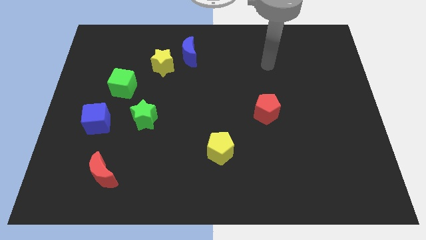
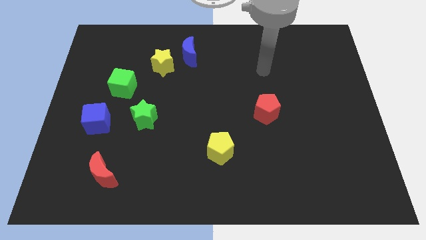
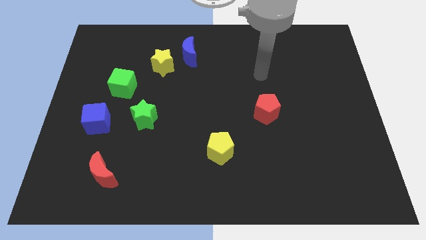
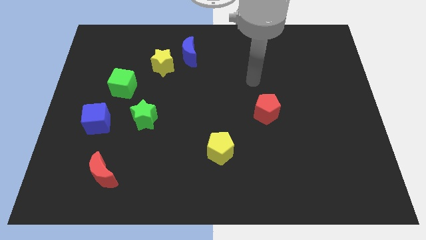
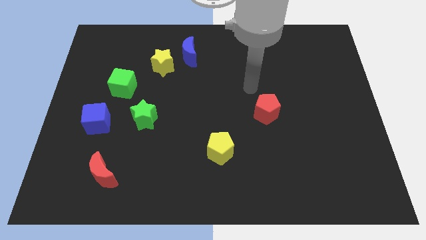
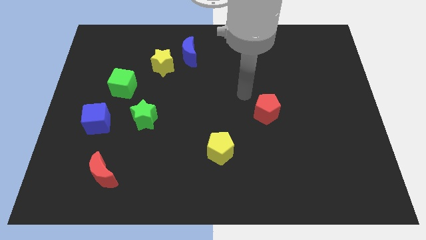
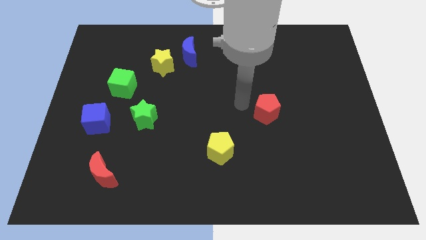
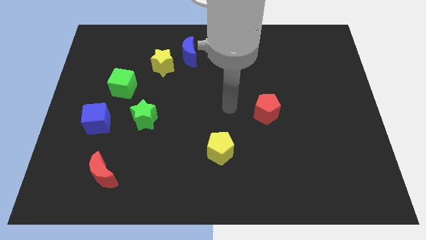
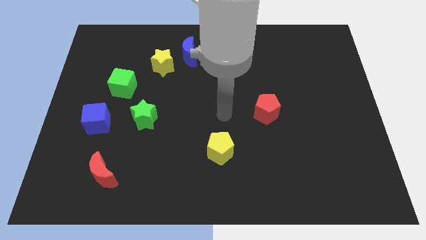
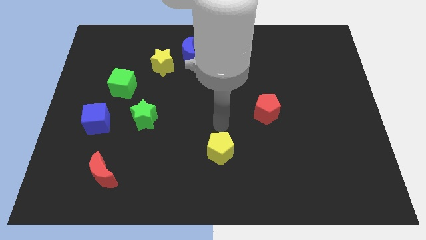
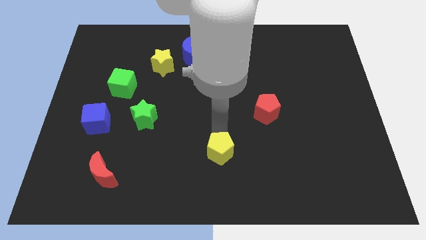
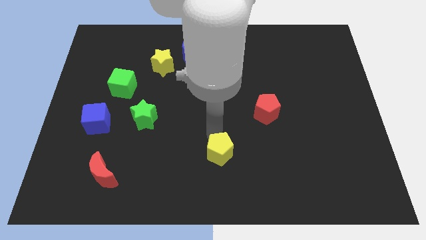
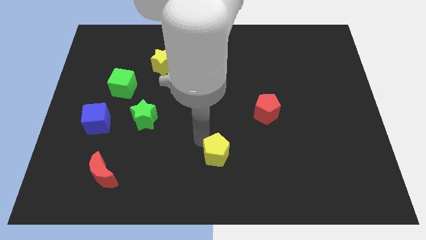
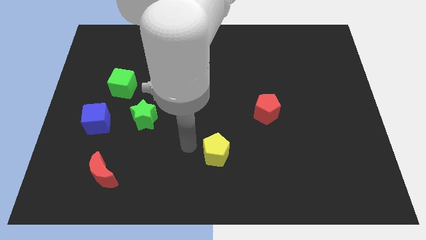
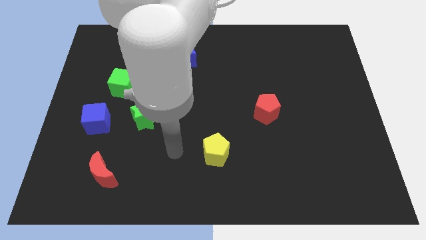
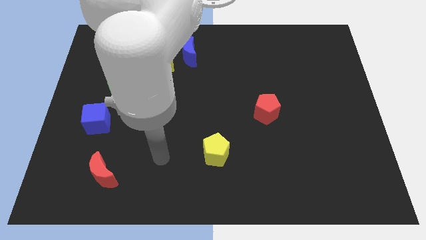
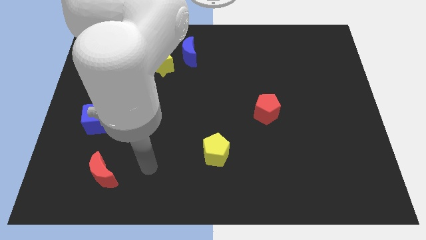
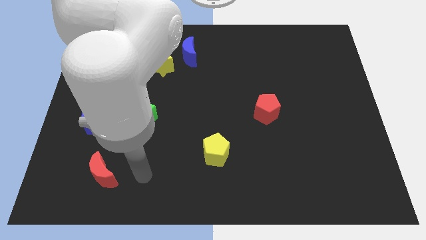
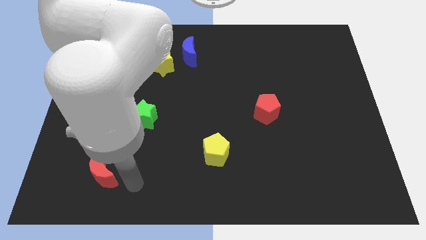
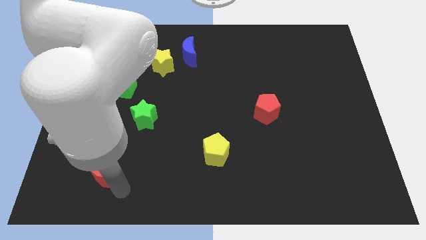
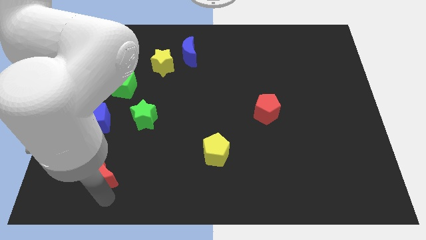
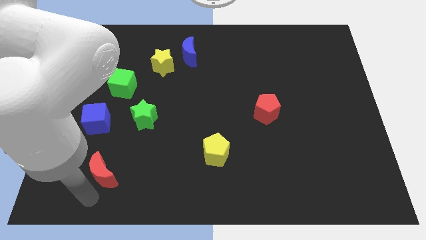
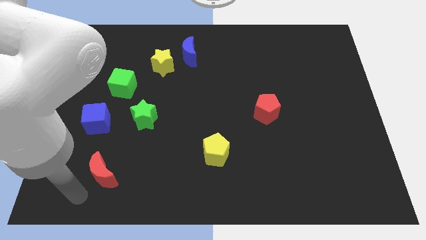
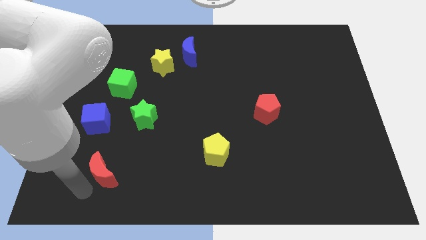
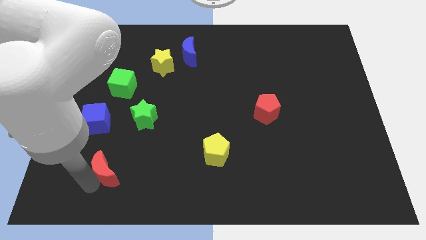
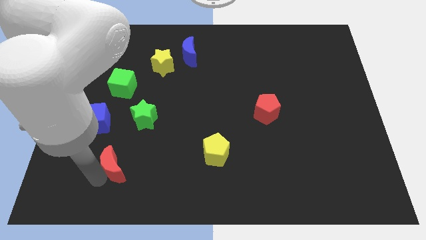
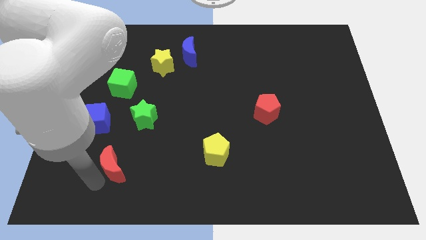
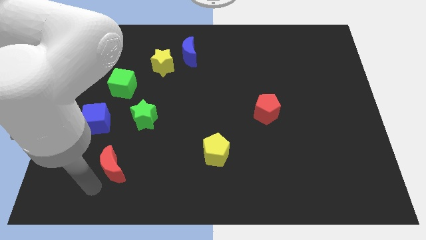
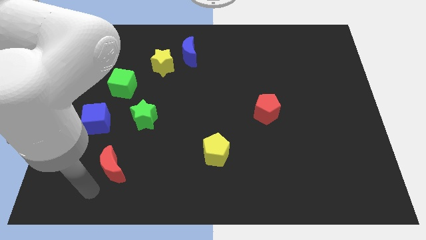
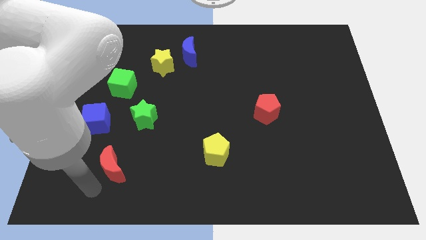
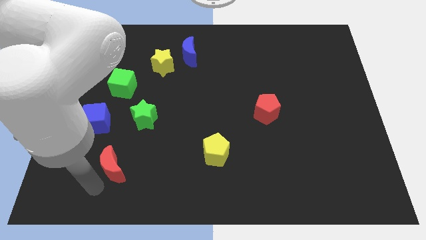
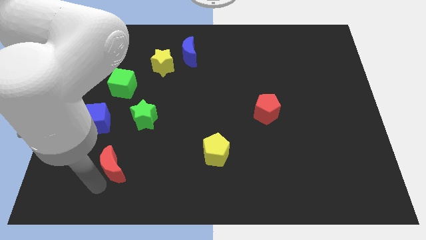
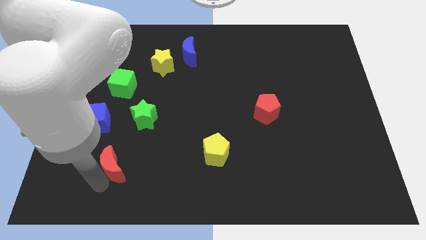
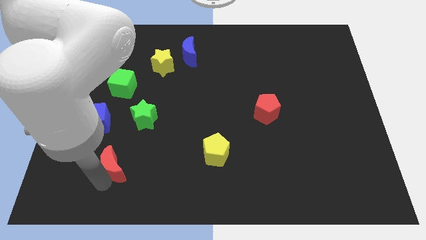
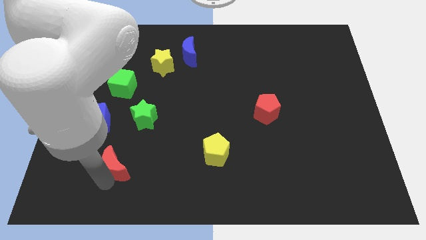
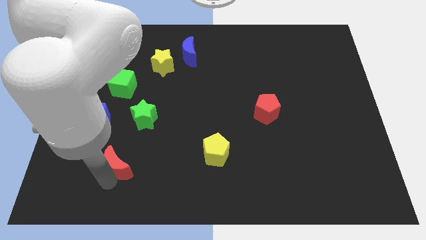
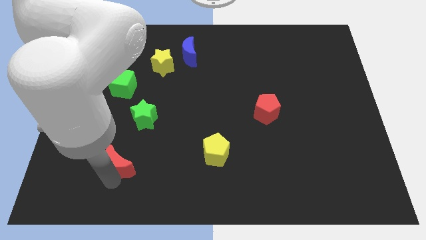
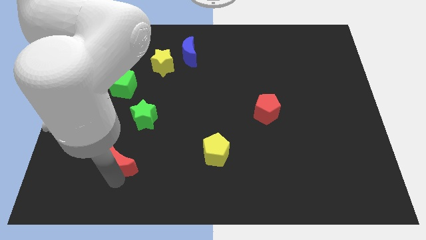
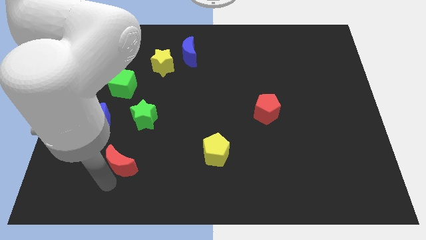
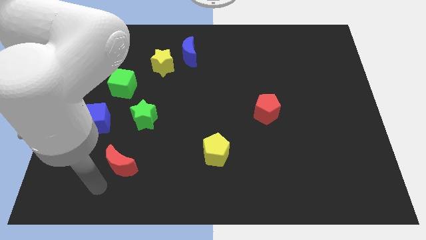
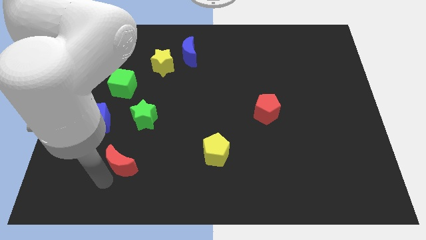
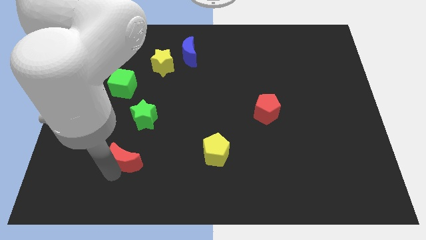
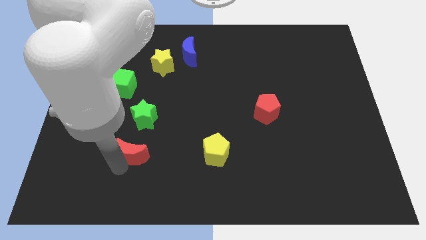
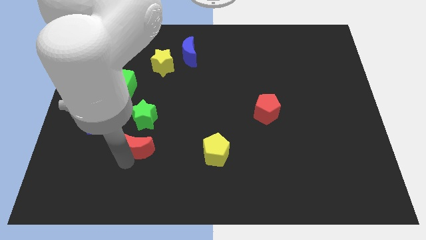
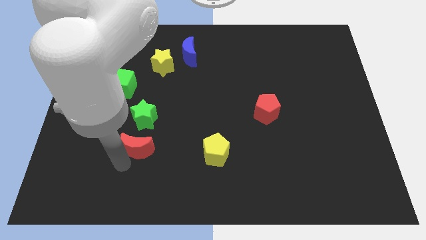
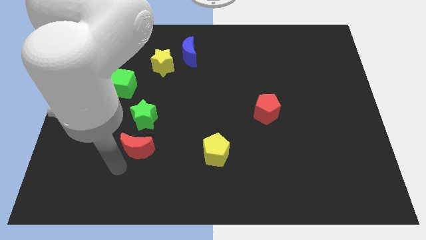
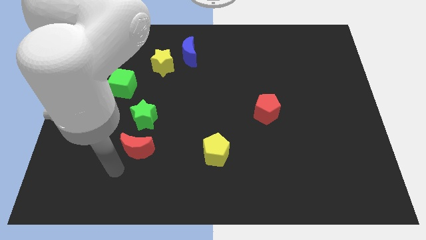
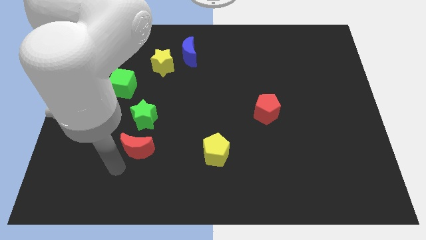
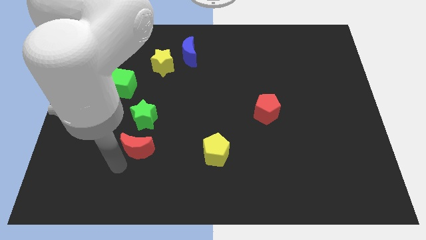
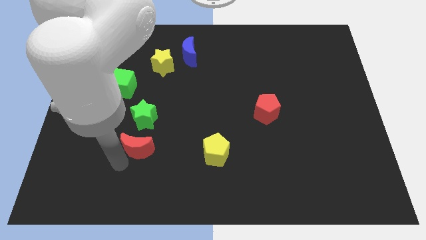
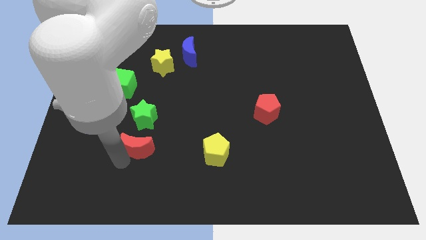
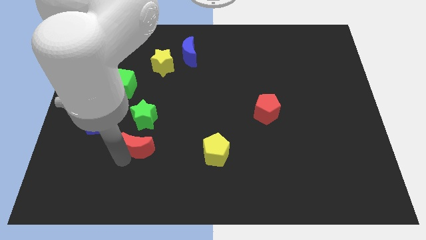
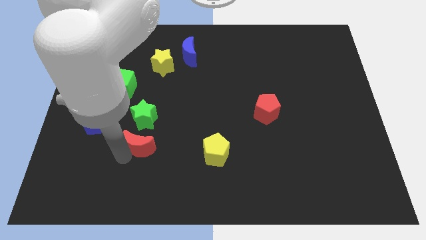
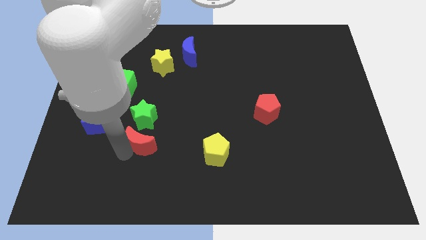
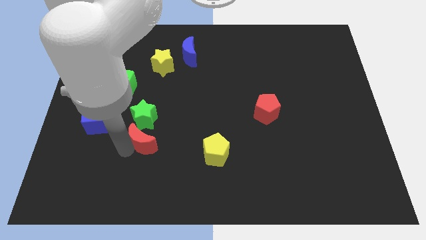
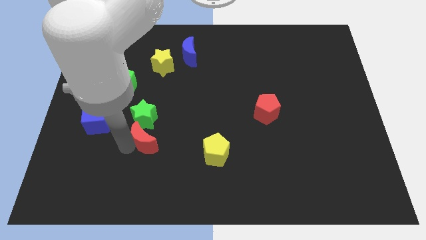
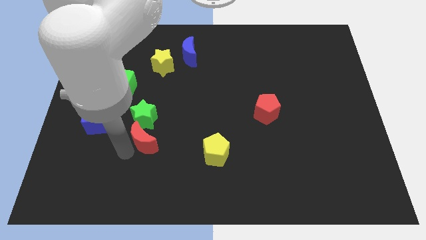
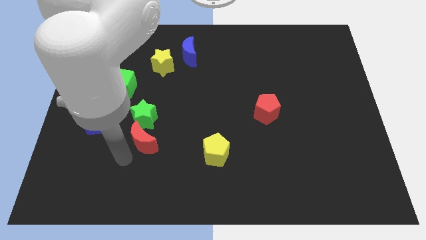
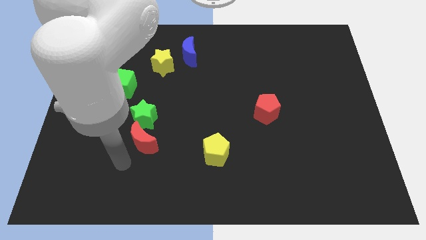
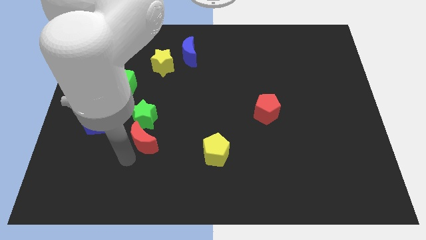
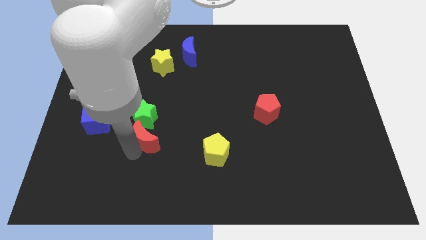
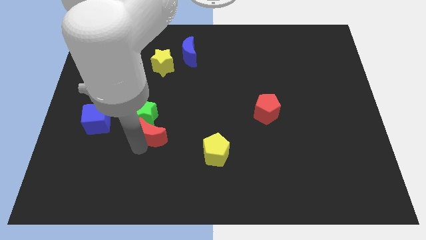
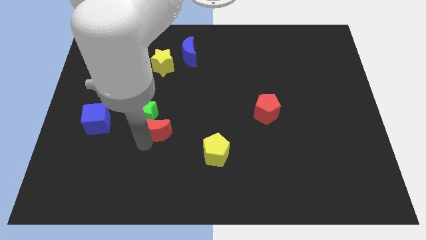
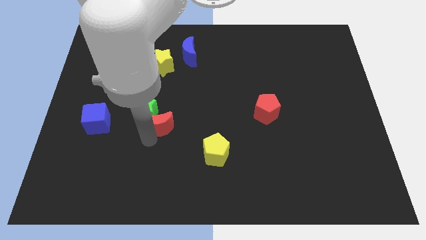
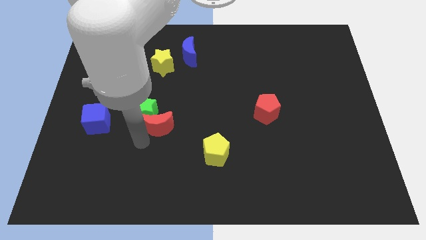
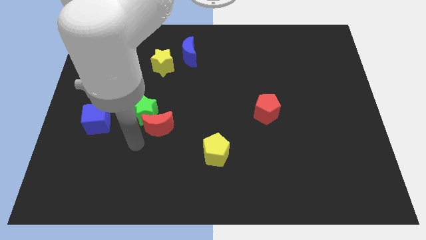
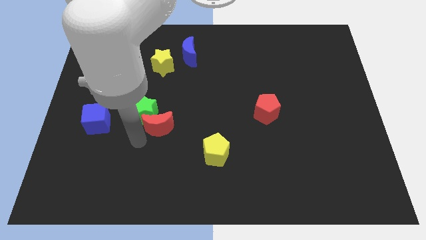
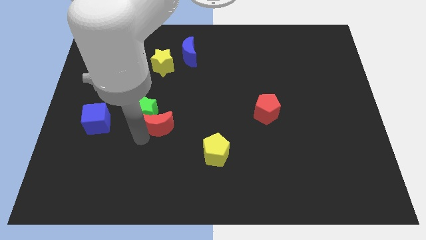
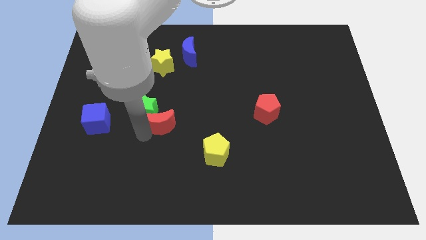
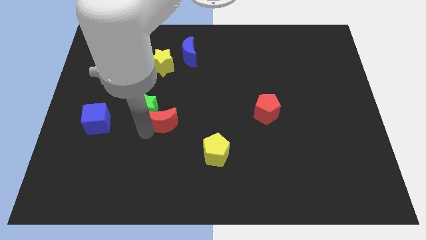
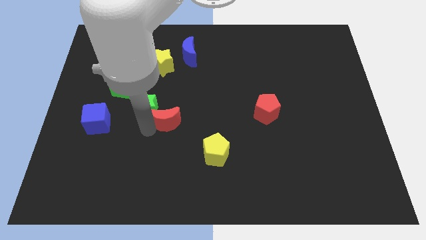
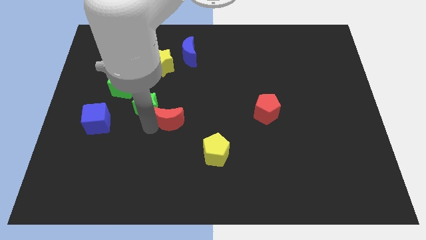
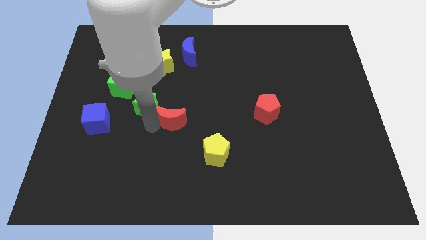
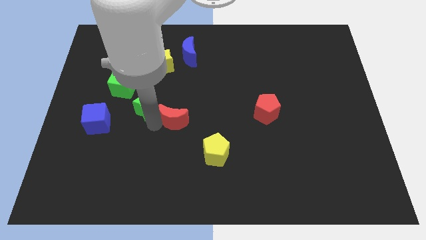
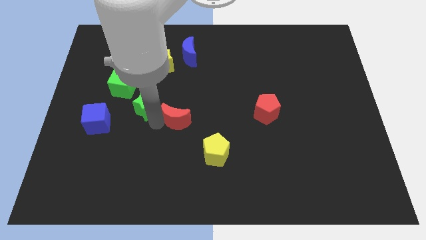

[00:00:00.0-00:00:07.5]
slide the red moon up and then right
